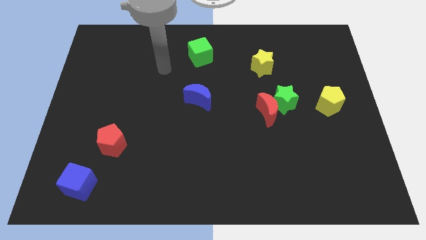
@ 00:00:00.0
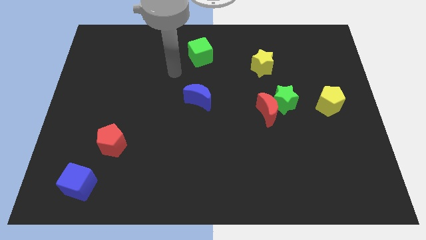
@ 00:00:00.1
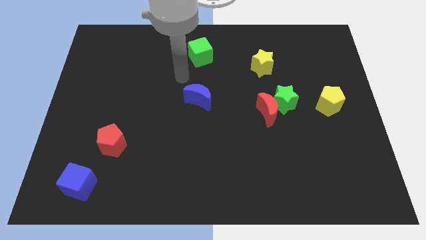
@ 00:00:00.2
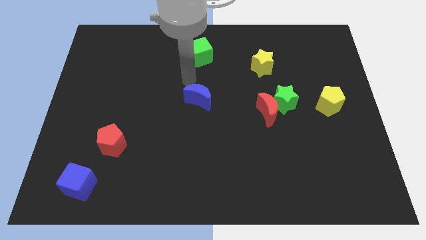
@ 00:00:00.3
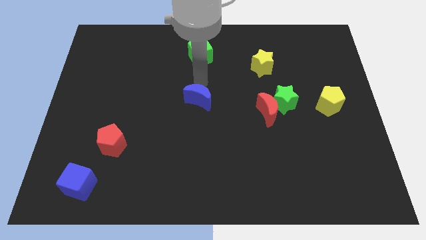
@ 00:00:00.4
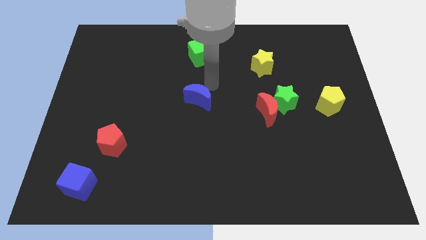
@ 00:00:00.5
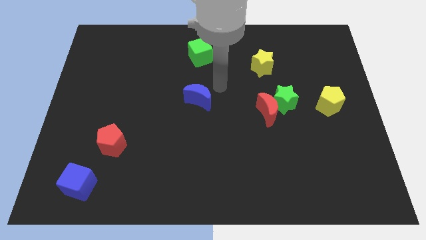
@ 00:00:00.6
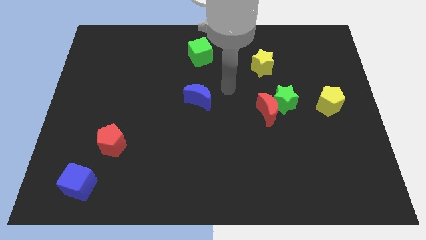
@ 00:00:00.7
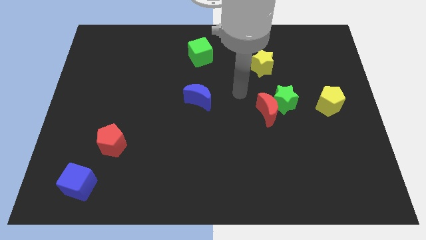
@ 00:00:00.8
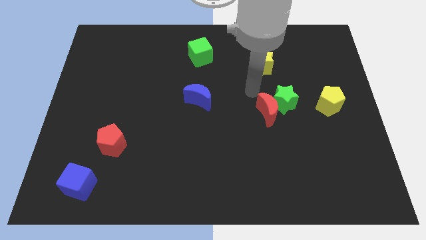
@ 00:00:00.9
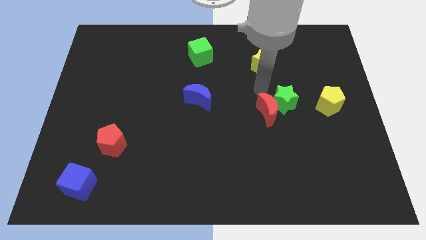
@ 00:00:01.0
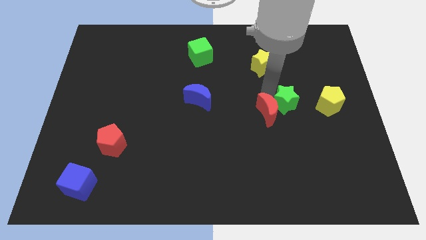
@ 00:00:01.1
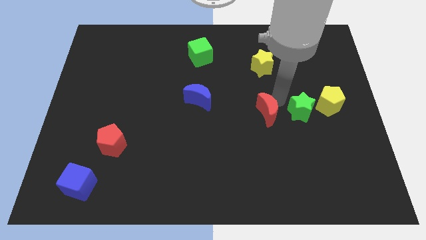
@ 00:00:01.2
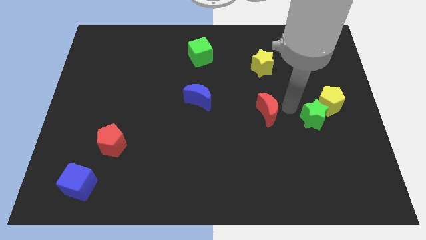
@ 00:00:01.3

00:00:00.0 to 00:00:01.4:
pull the red moon apart from the green star

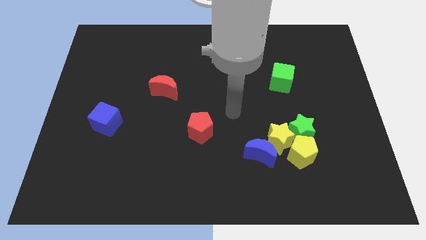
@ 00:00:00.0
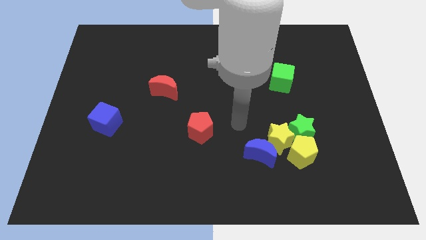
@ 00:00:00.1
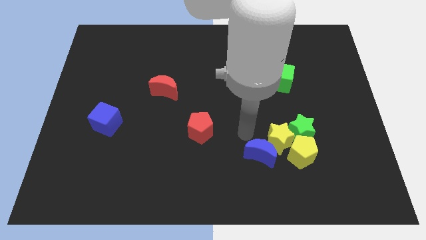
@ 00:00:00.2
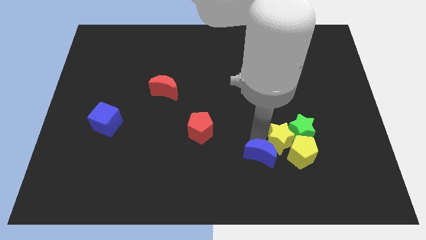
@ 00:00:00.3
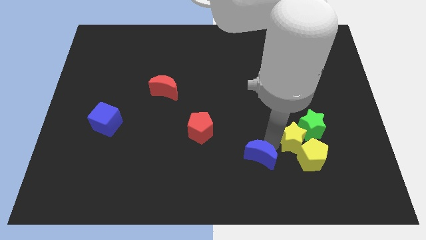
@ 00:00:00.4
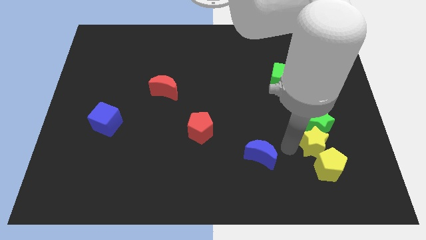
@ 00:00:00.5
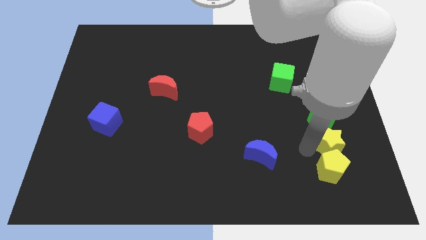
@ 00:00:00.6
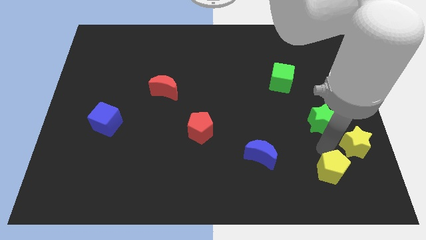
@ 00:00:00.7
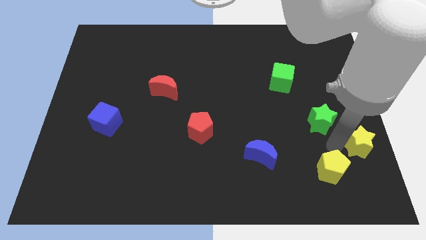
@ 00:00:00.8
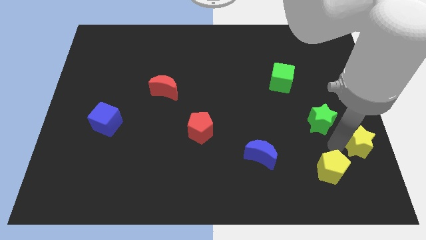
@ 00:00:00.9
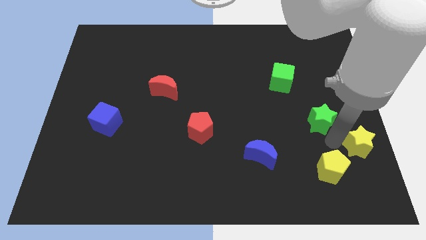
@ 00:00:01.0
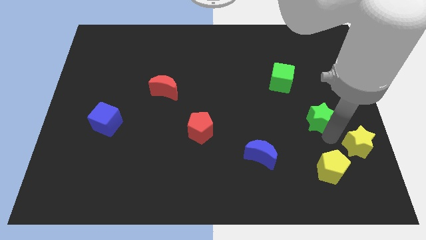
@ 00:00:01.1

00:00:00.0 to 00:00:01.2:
pull the green star apart from the yellow pentagon and yellow star

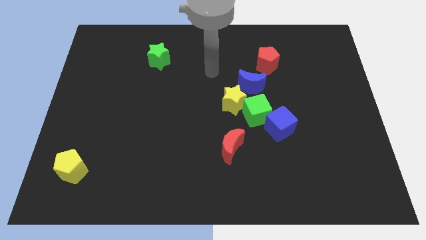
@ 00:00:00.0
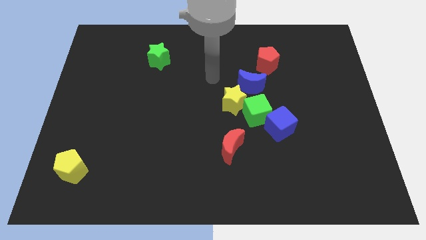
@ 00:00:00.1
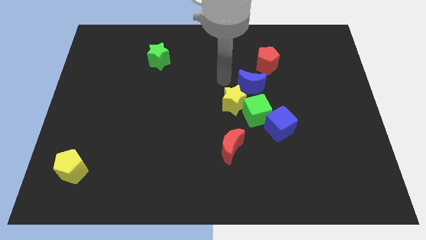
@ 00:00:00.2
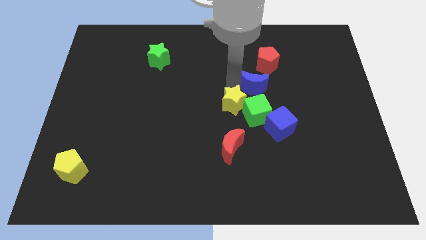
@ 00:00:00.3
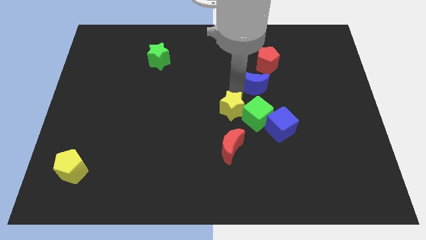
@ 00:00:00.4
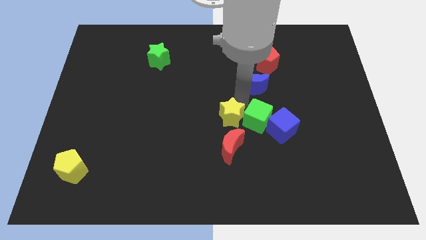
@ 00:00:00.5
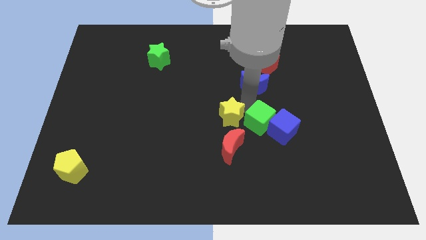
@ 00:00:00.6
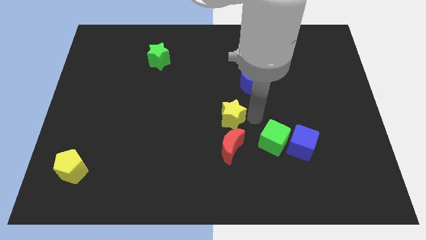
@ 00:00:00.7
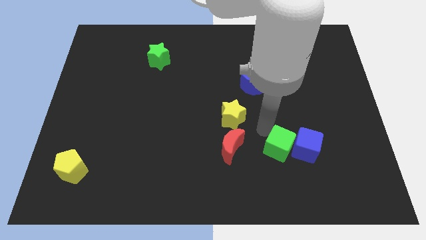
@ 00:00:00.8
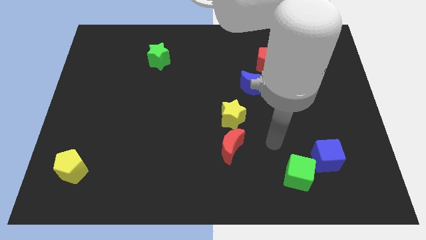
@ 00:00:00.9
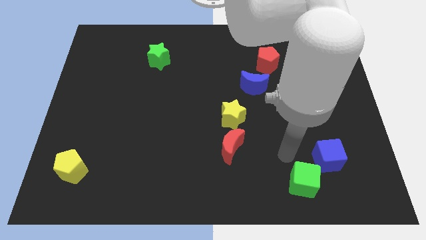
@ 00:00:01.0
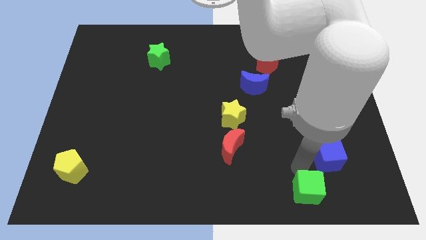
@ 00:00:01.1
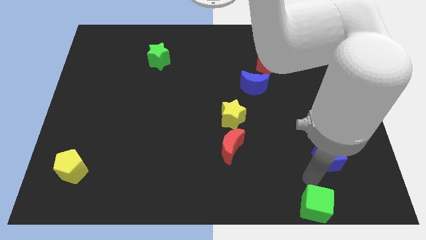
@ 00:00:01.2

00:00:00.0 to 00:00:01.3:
pull the blue cube apart from the green cube

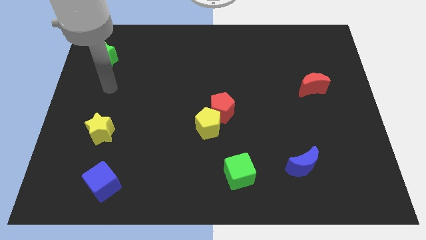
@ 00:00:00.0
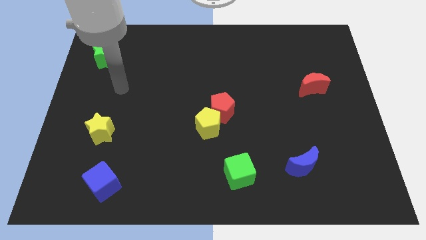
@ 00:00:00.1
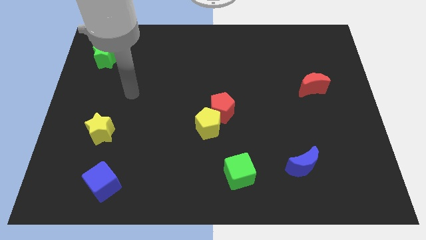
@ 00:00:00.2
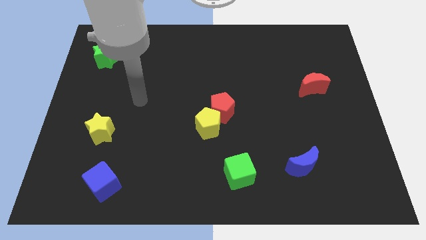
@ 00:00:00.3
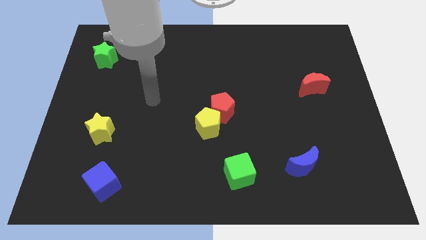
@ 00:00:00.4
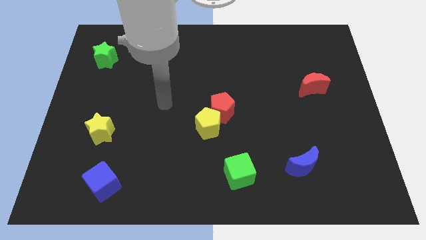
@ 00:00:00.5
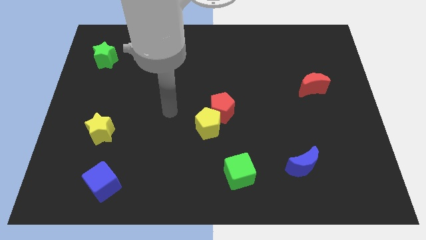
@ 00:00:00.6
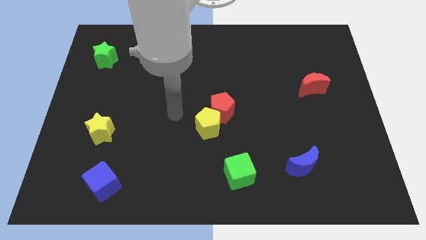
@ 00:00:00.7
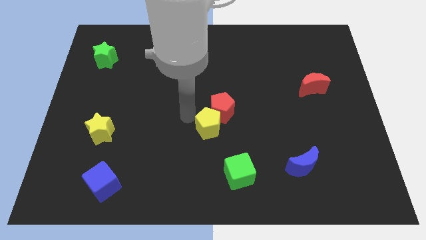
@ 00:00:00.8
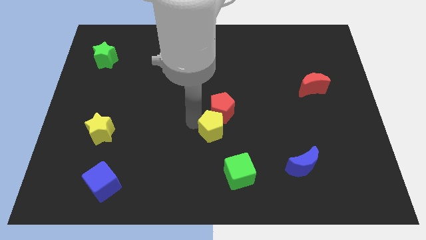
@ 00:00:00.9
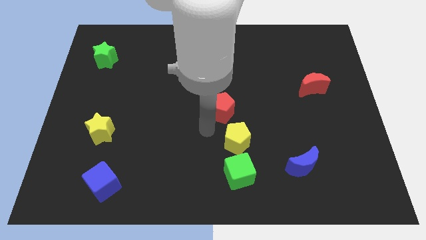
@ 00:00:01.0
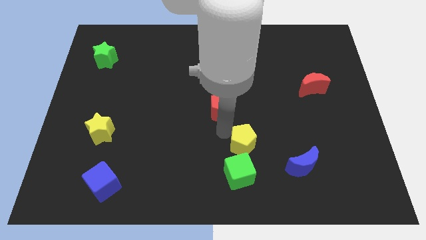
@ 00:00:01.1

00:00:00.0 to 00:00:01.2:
separate the red pentagon from the yellow pentagon

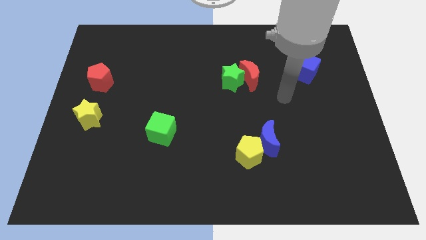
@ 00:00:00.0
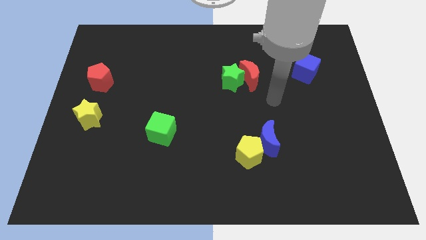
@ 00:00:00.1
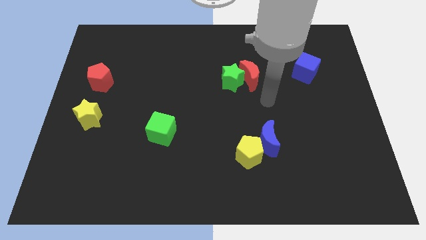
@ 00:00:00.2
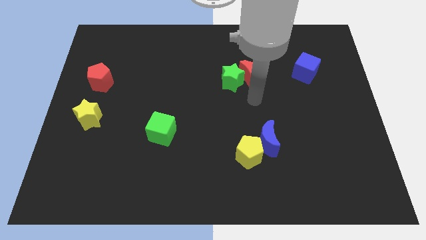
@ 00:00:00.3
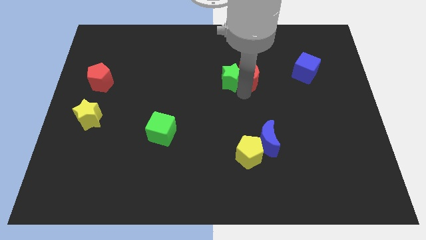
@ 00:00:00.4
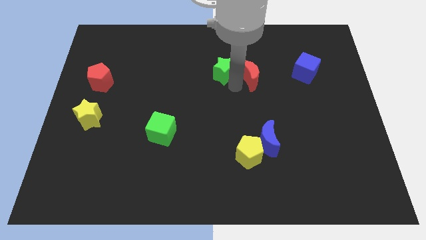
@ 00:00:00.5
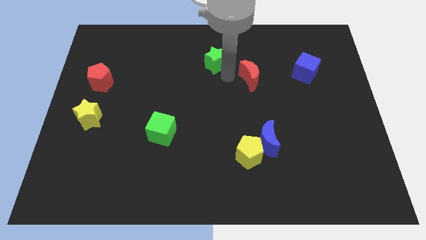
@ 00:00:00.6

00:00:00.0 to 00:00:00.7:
move the red moon away from the green star

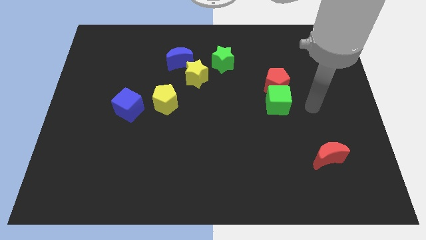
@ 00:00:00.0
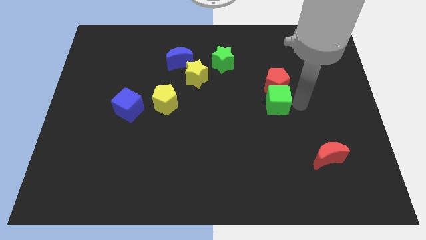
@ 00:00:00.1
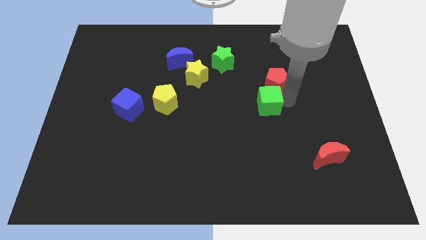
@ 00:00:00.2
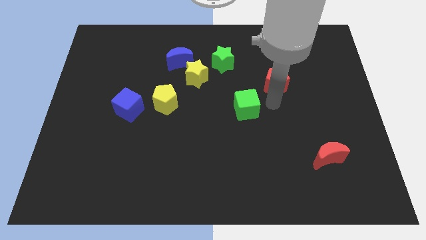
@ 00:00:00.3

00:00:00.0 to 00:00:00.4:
separate the red pentagon from the green cube

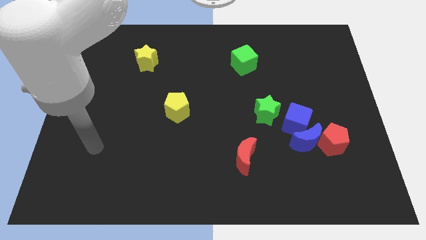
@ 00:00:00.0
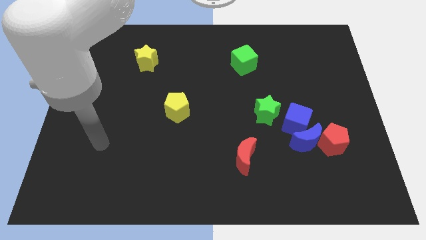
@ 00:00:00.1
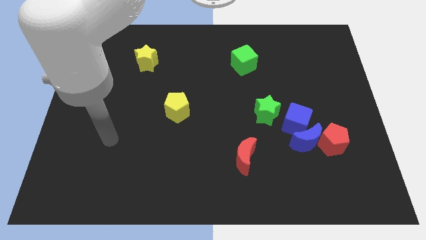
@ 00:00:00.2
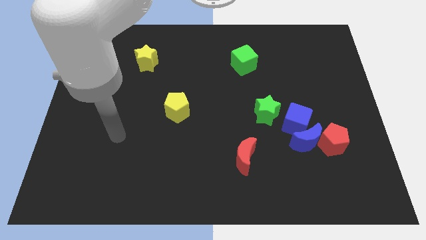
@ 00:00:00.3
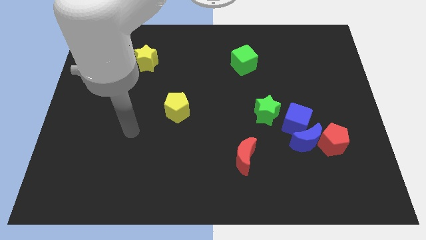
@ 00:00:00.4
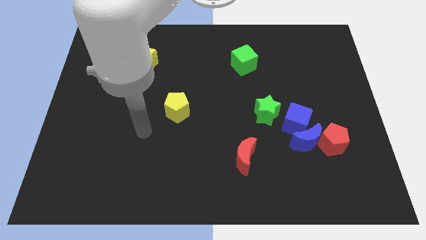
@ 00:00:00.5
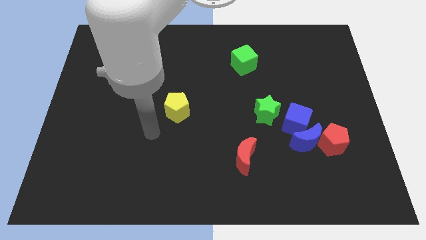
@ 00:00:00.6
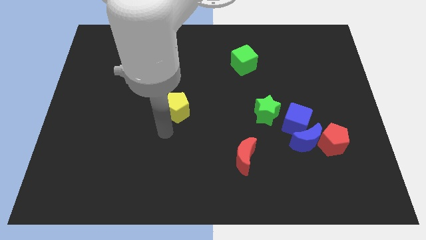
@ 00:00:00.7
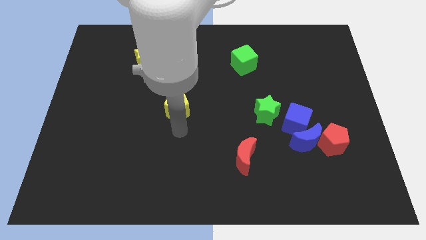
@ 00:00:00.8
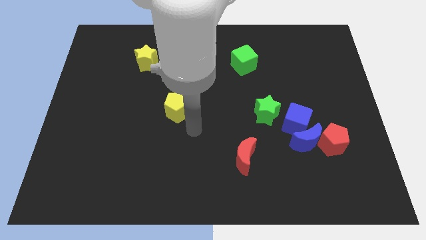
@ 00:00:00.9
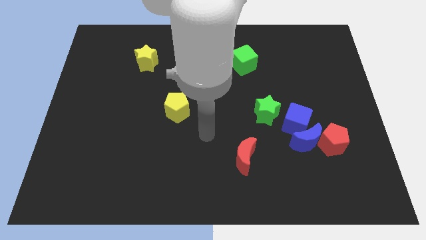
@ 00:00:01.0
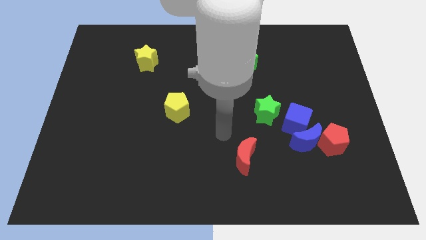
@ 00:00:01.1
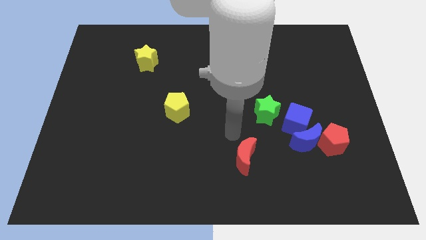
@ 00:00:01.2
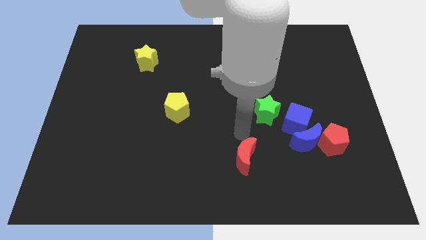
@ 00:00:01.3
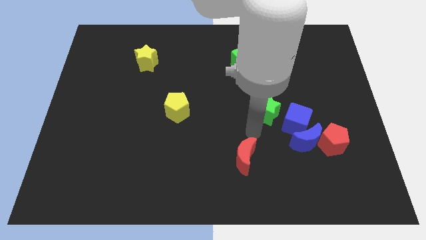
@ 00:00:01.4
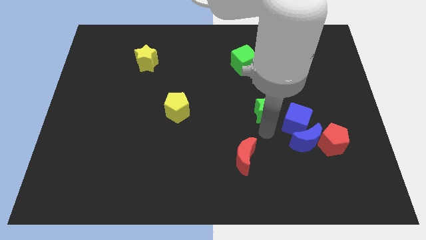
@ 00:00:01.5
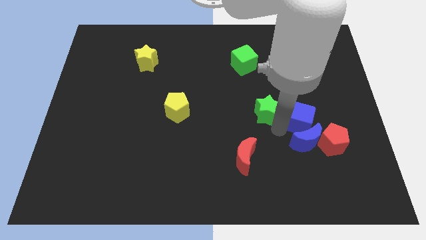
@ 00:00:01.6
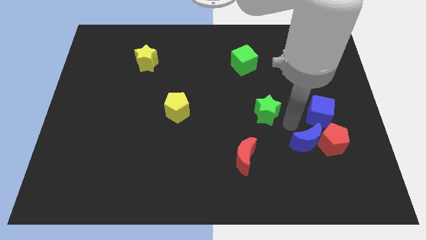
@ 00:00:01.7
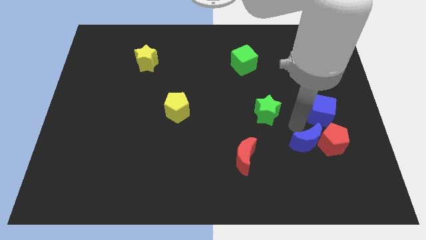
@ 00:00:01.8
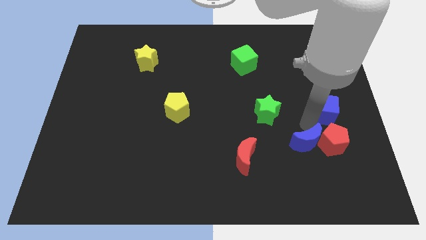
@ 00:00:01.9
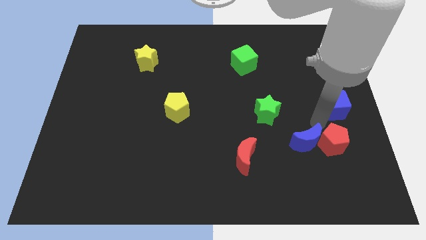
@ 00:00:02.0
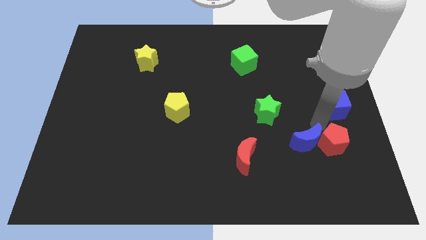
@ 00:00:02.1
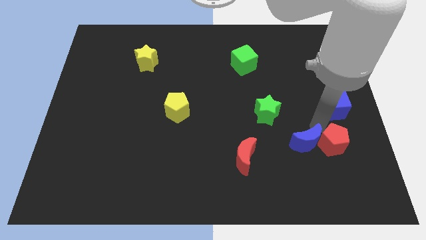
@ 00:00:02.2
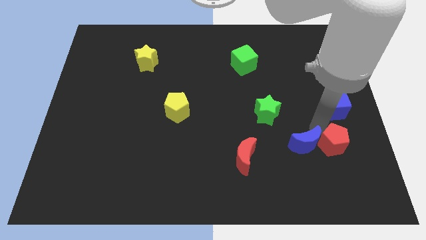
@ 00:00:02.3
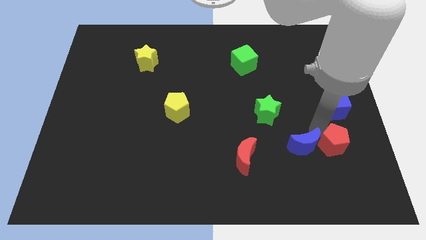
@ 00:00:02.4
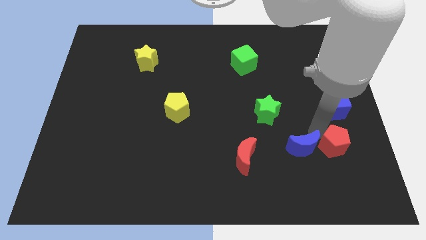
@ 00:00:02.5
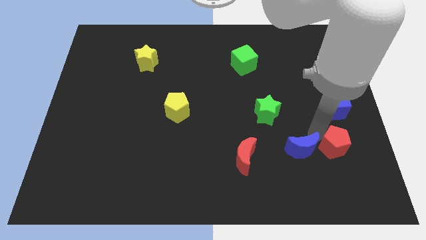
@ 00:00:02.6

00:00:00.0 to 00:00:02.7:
separate the blue moon from the blue cube and red pentagon

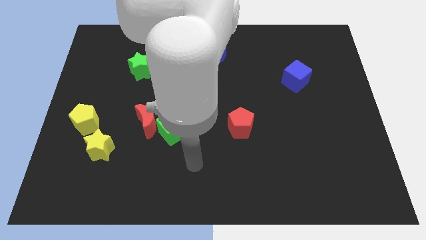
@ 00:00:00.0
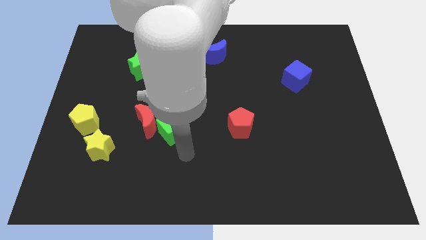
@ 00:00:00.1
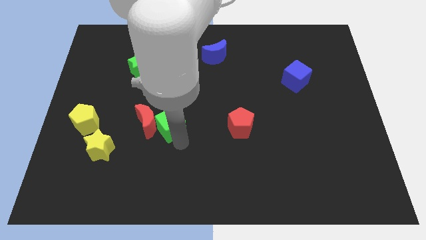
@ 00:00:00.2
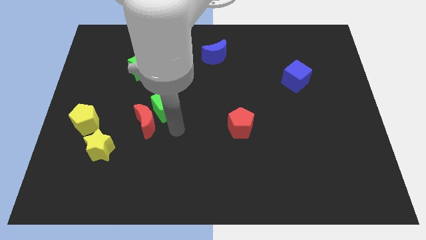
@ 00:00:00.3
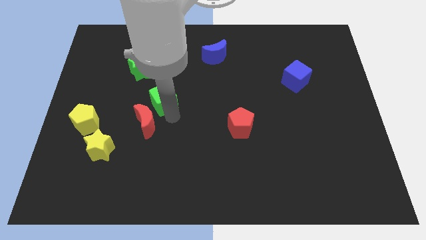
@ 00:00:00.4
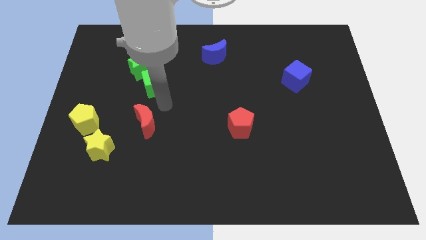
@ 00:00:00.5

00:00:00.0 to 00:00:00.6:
move the red moon away from the green cube
